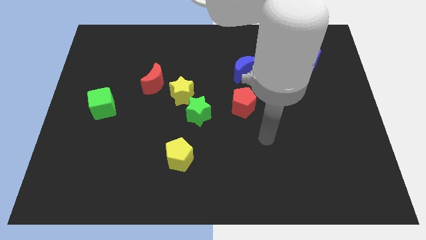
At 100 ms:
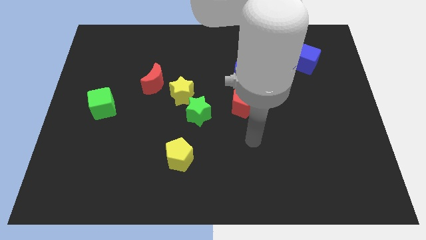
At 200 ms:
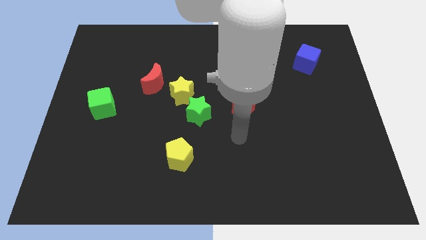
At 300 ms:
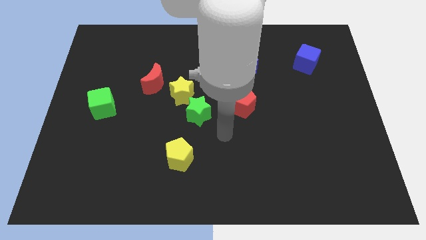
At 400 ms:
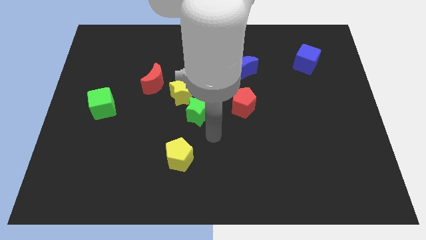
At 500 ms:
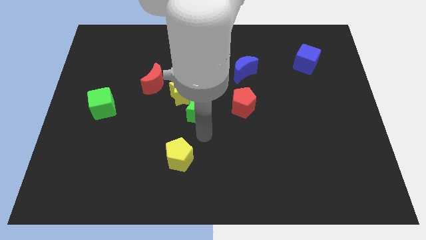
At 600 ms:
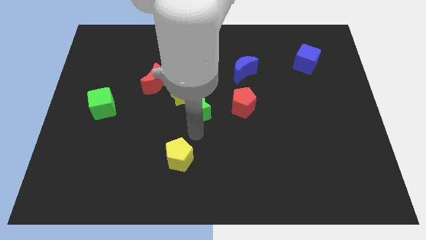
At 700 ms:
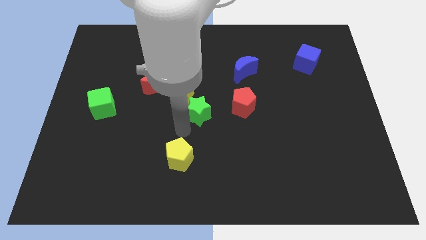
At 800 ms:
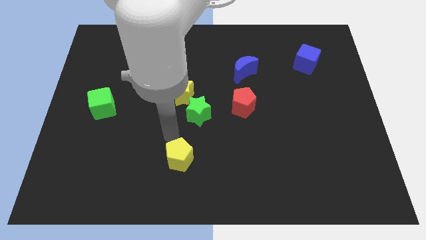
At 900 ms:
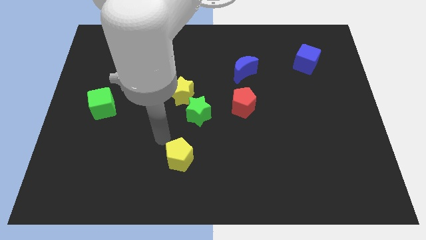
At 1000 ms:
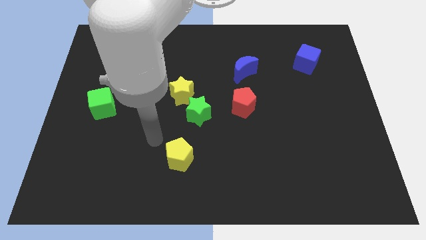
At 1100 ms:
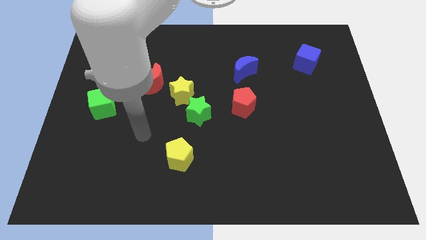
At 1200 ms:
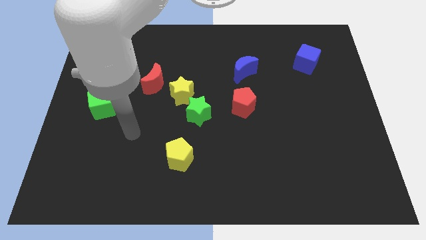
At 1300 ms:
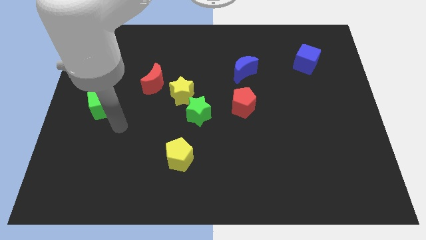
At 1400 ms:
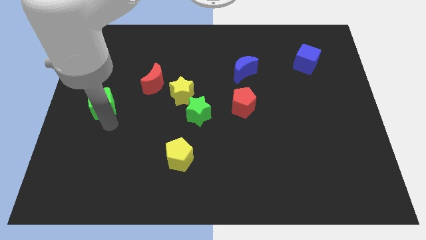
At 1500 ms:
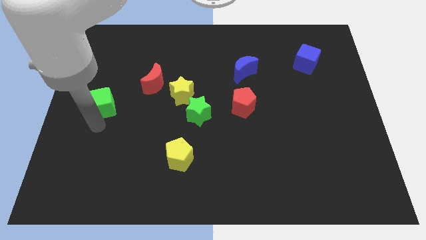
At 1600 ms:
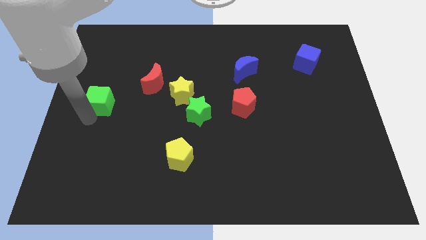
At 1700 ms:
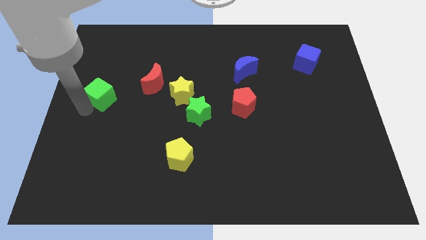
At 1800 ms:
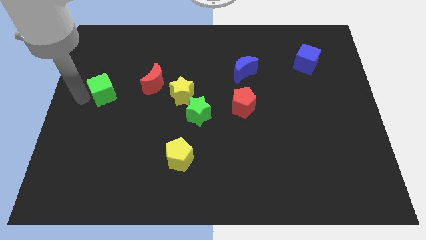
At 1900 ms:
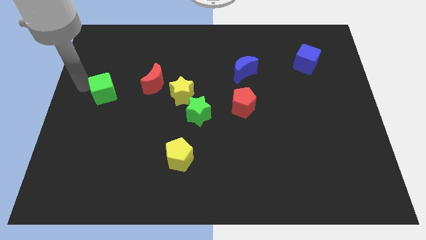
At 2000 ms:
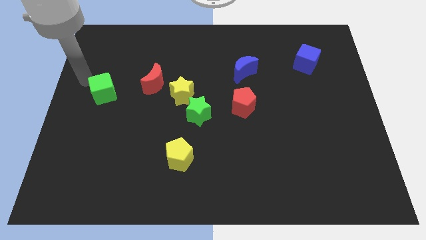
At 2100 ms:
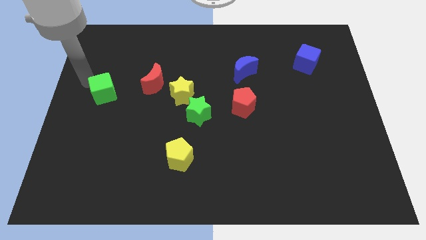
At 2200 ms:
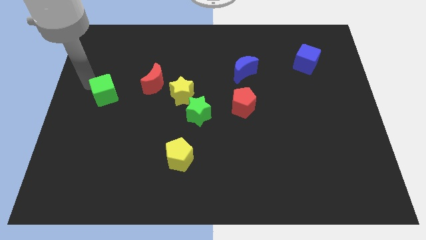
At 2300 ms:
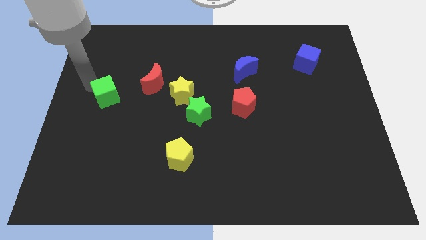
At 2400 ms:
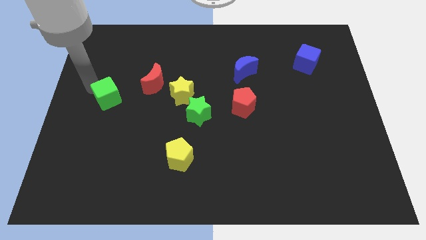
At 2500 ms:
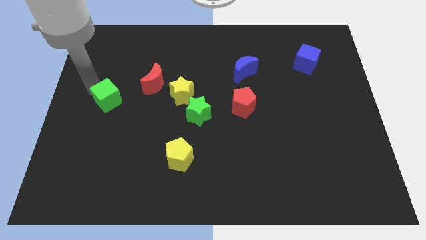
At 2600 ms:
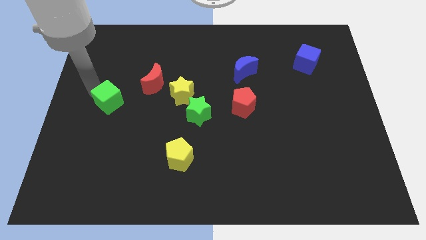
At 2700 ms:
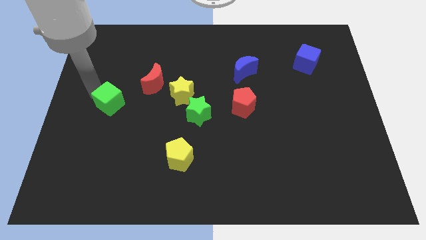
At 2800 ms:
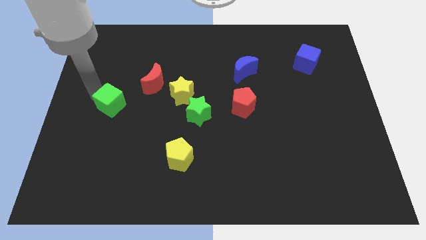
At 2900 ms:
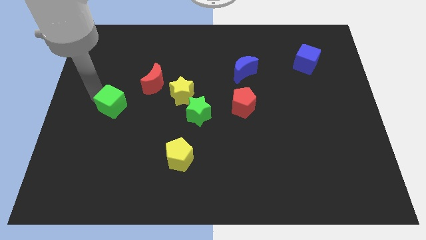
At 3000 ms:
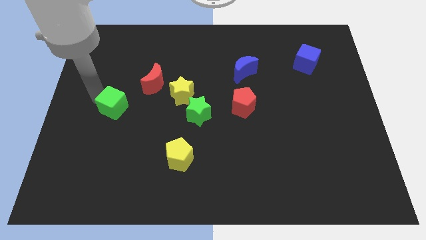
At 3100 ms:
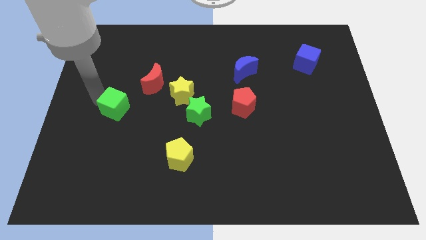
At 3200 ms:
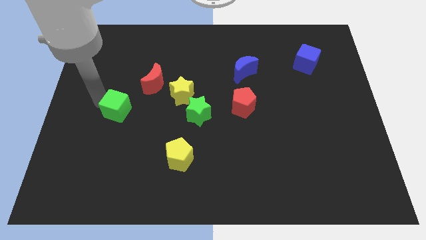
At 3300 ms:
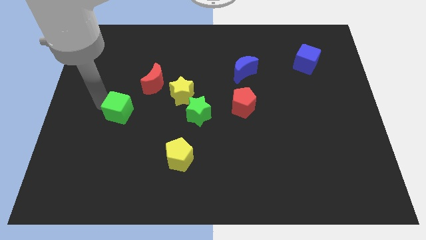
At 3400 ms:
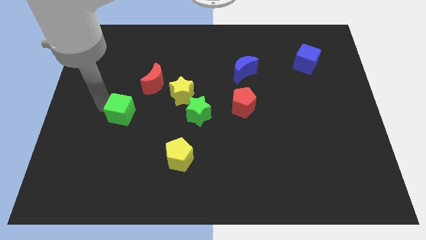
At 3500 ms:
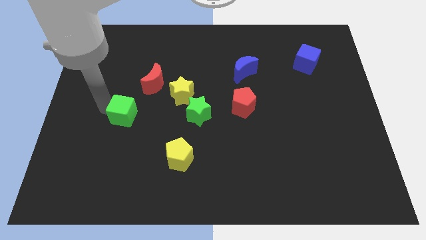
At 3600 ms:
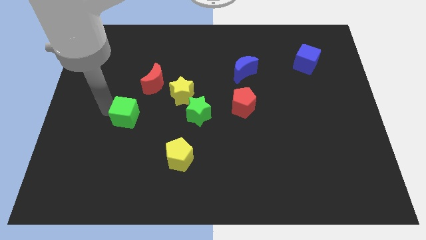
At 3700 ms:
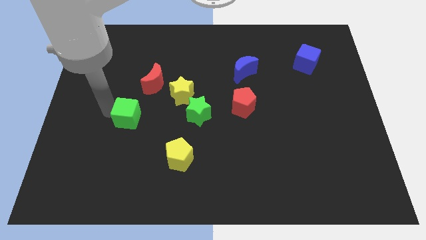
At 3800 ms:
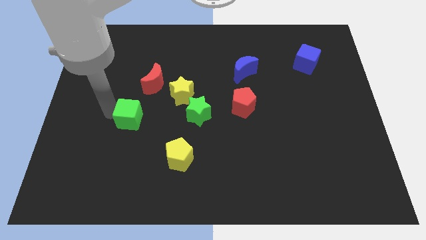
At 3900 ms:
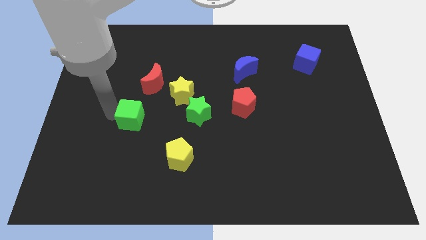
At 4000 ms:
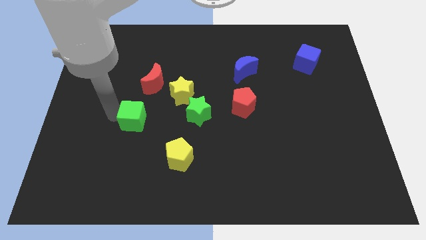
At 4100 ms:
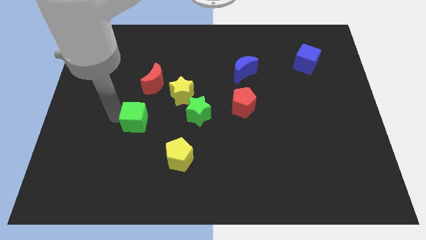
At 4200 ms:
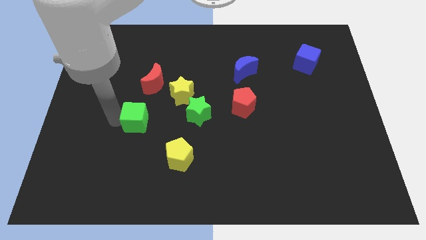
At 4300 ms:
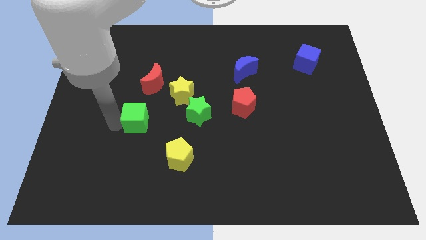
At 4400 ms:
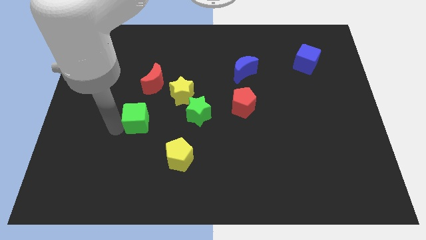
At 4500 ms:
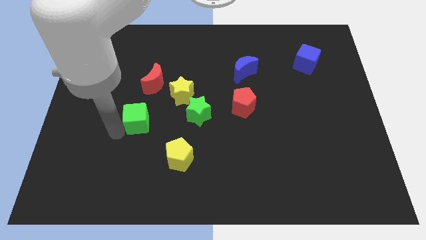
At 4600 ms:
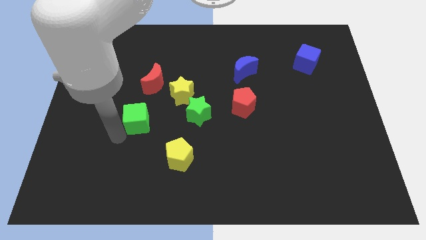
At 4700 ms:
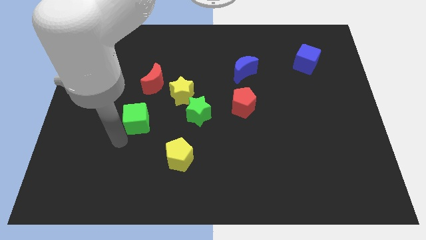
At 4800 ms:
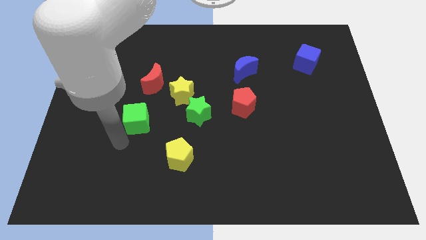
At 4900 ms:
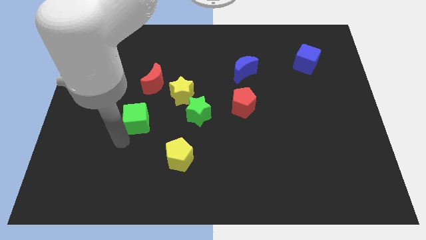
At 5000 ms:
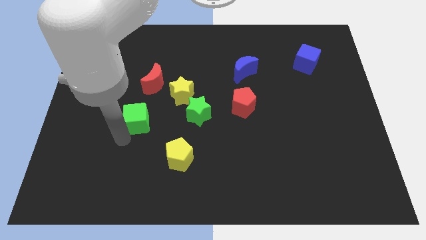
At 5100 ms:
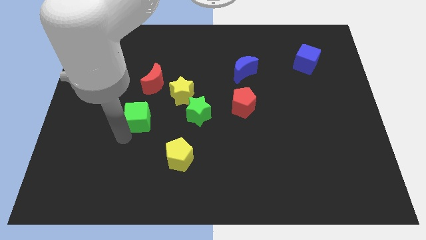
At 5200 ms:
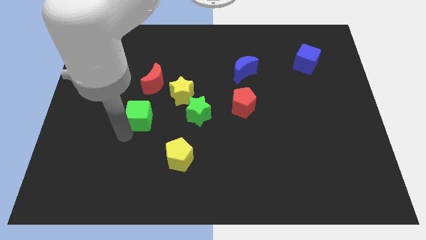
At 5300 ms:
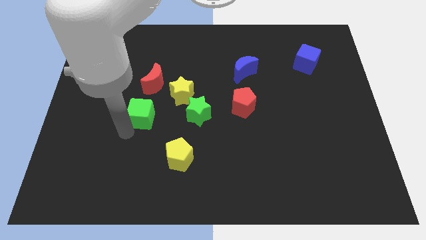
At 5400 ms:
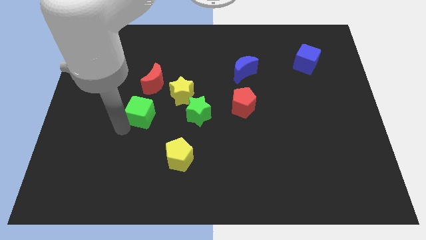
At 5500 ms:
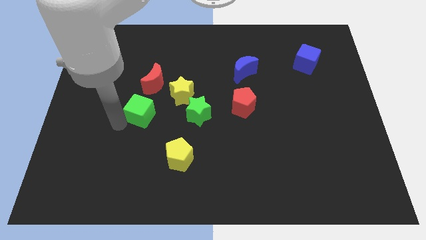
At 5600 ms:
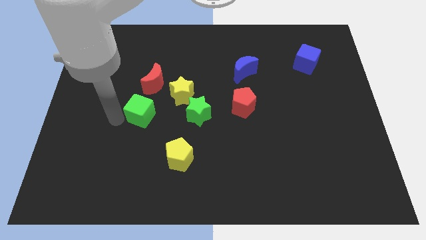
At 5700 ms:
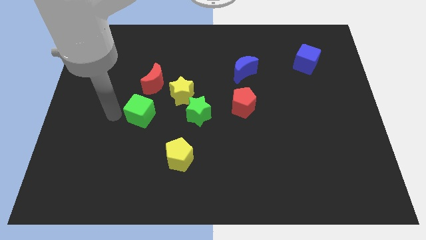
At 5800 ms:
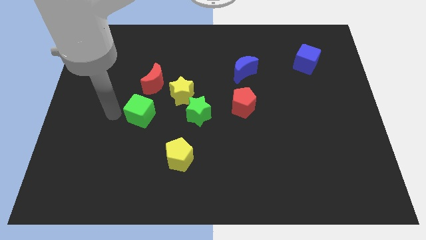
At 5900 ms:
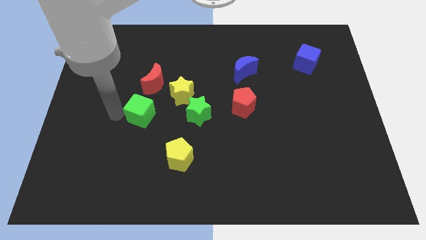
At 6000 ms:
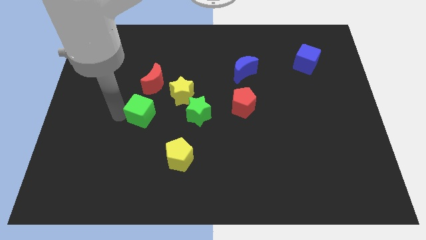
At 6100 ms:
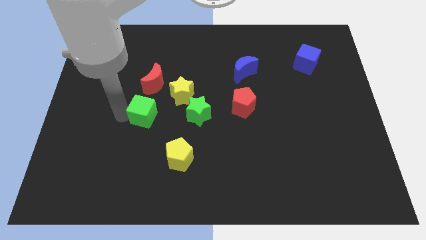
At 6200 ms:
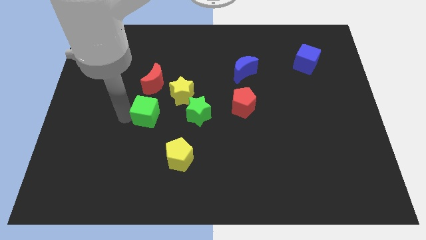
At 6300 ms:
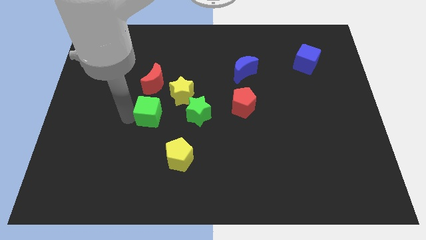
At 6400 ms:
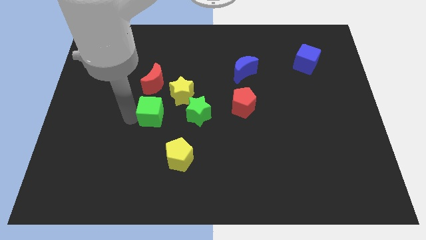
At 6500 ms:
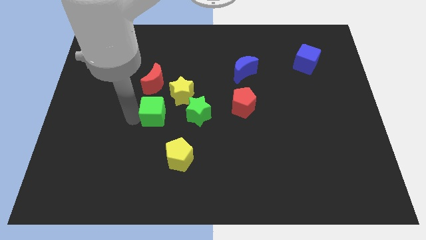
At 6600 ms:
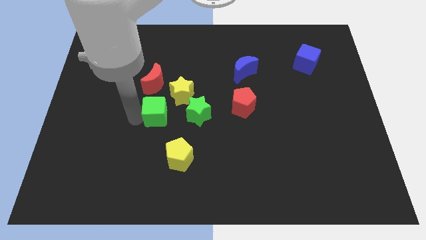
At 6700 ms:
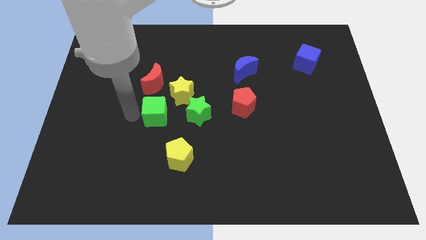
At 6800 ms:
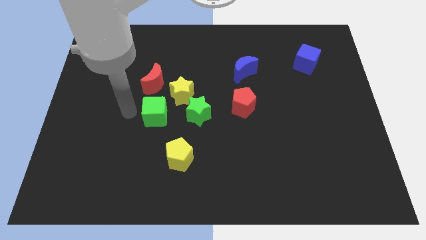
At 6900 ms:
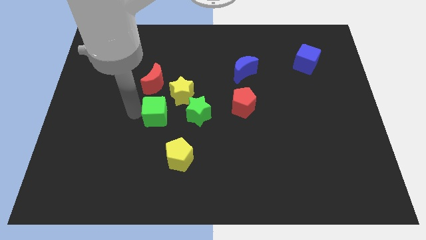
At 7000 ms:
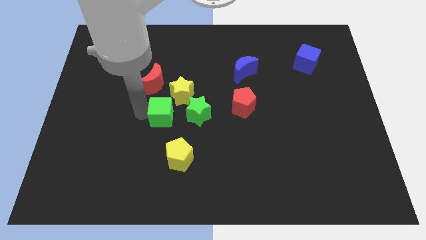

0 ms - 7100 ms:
slide the green cube to the top of the yellow pentagon
